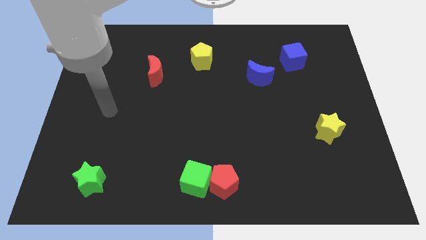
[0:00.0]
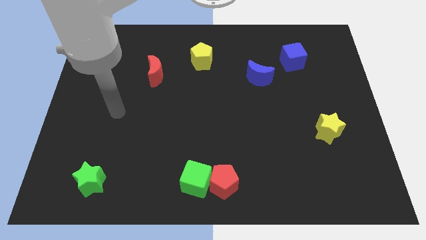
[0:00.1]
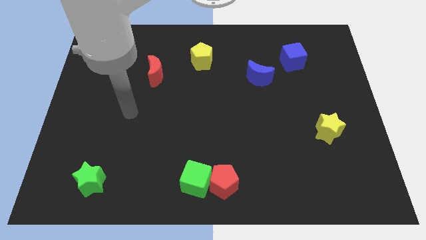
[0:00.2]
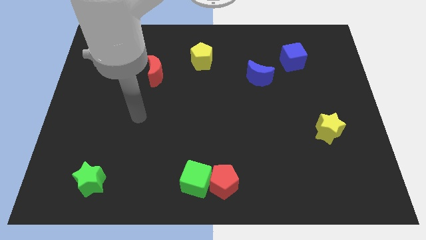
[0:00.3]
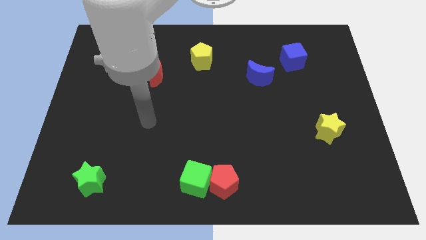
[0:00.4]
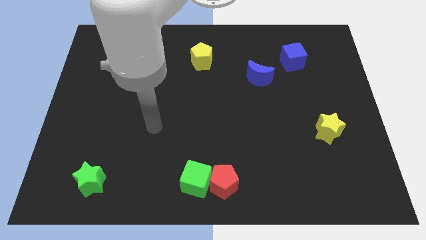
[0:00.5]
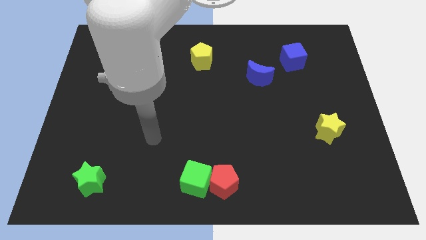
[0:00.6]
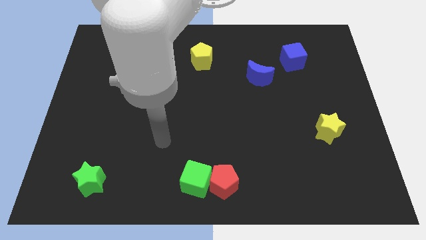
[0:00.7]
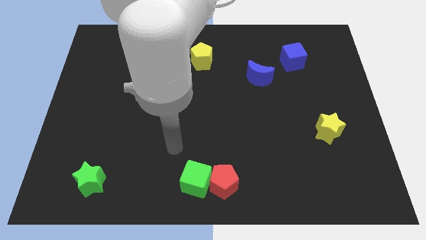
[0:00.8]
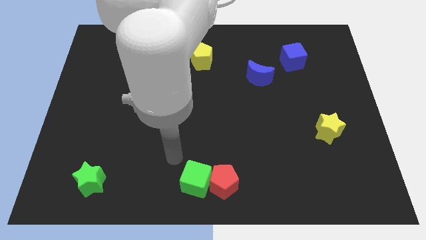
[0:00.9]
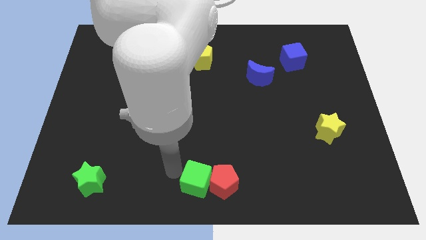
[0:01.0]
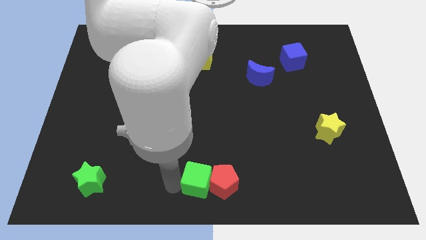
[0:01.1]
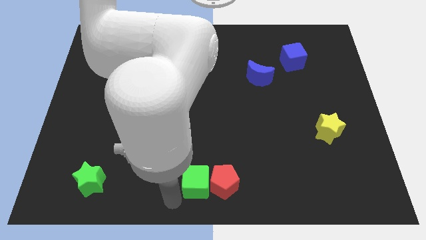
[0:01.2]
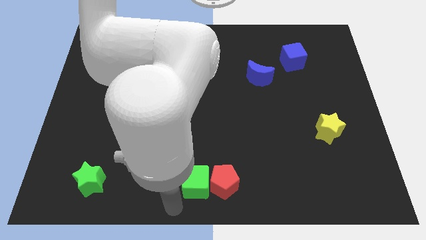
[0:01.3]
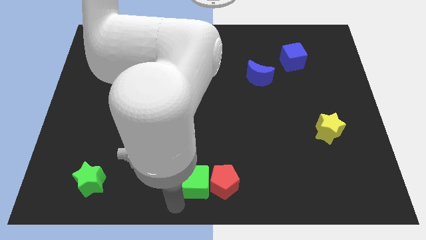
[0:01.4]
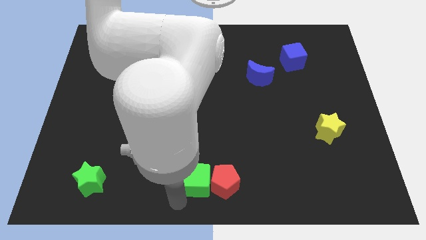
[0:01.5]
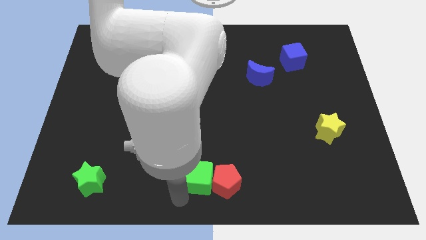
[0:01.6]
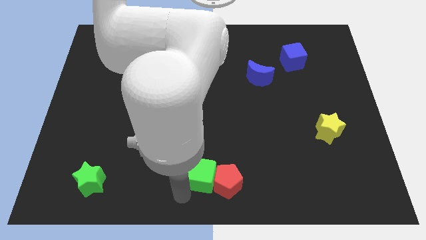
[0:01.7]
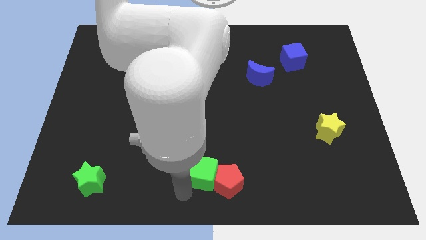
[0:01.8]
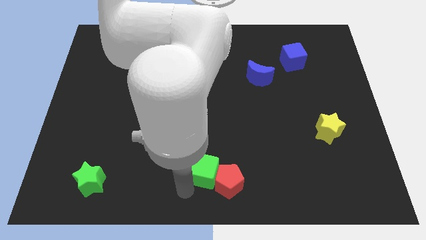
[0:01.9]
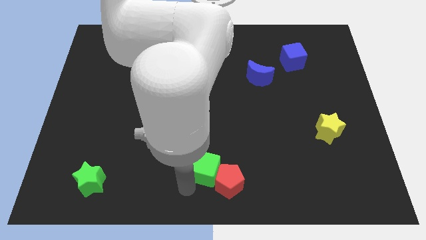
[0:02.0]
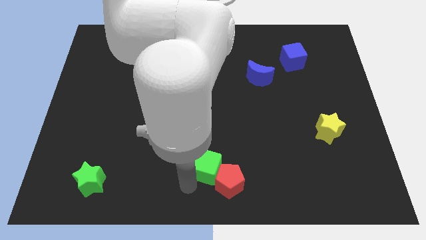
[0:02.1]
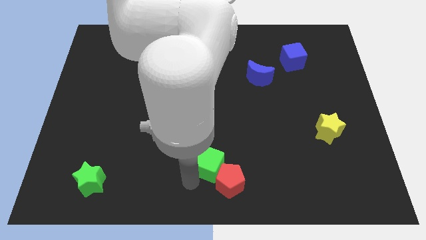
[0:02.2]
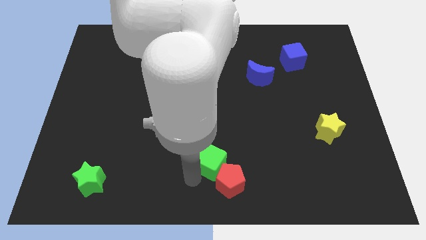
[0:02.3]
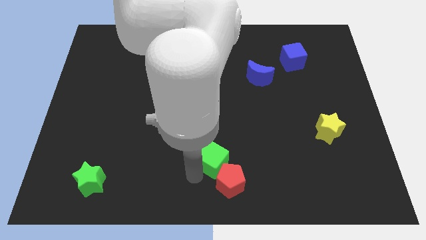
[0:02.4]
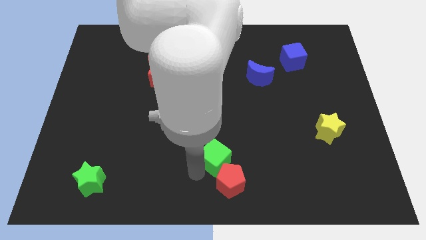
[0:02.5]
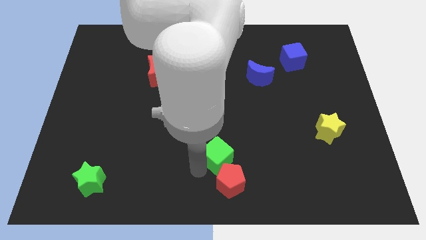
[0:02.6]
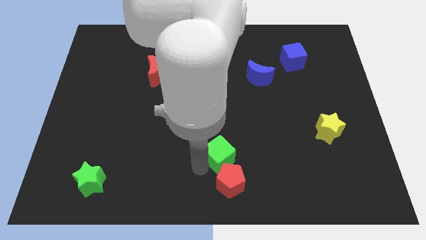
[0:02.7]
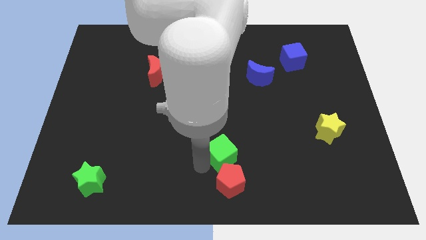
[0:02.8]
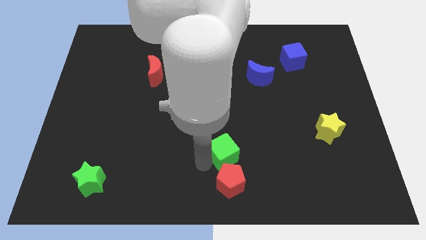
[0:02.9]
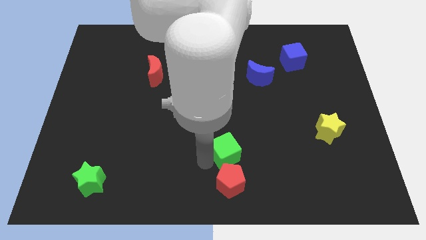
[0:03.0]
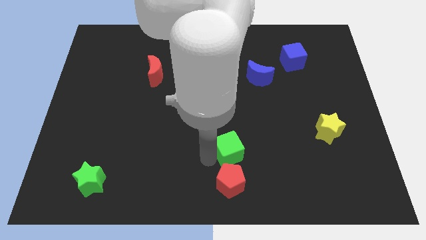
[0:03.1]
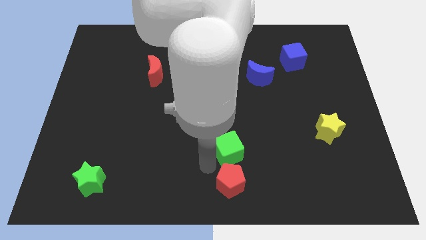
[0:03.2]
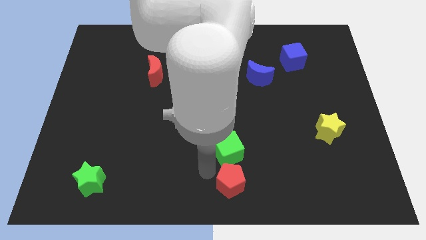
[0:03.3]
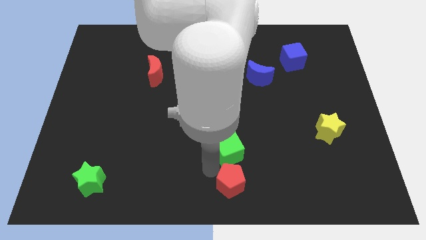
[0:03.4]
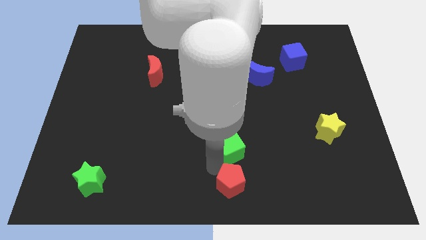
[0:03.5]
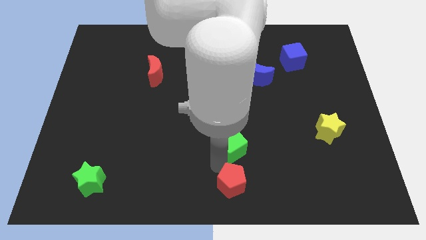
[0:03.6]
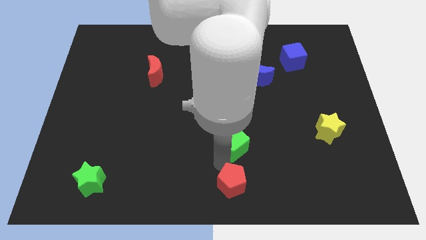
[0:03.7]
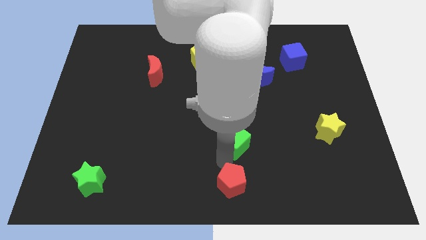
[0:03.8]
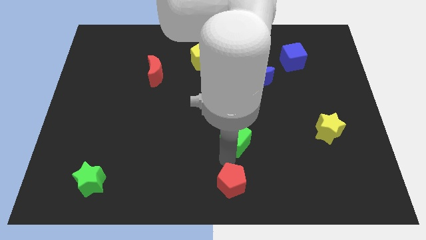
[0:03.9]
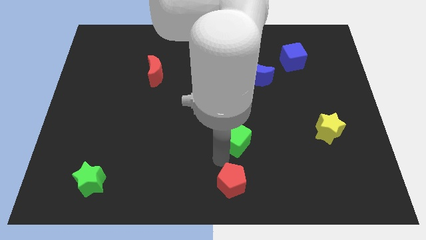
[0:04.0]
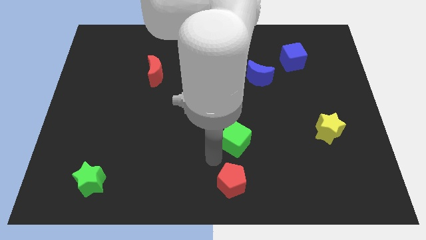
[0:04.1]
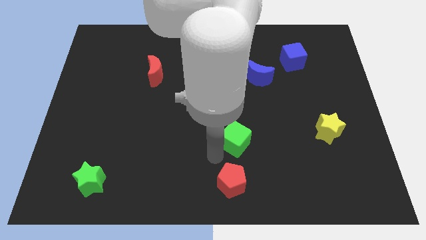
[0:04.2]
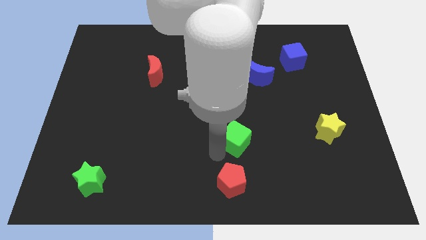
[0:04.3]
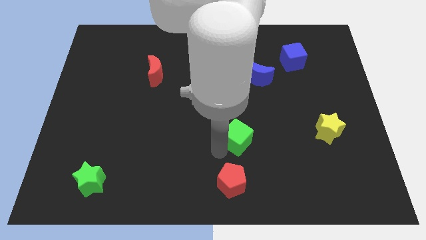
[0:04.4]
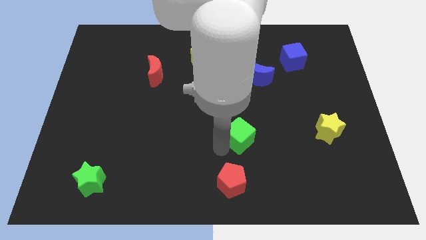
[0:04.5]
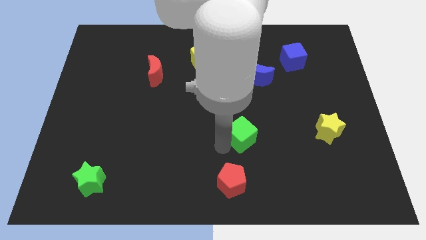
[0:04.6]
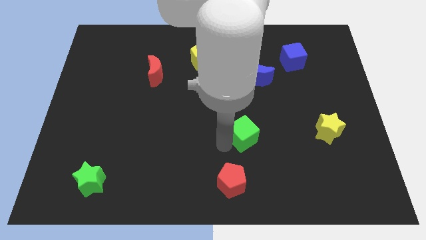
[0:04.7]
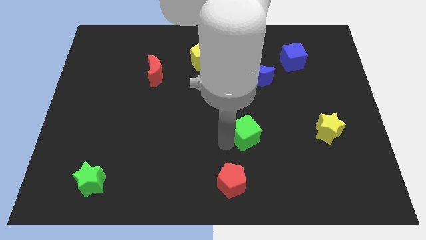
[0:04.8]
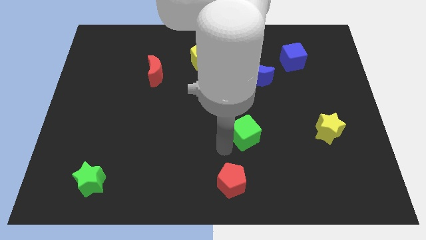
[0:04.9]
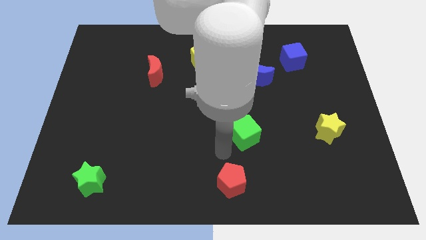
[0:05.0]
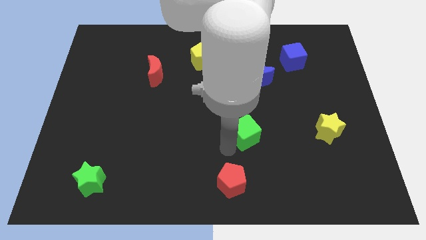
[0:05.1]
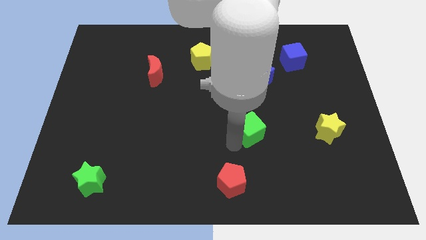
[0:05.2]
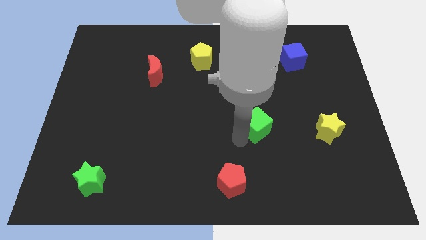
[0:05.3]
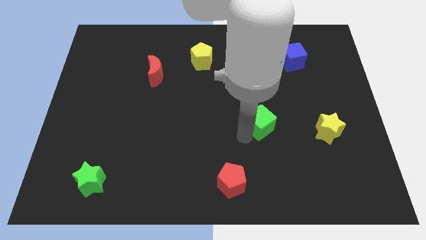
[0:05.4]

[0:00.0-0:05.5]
move the green cube up and to the right

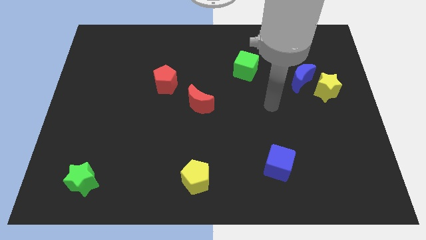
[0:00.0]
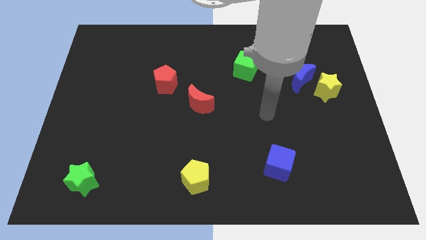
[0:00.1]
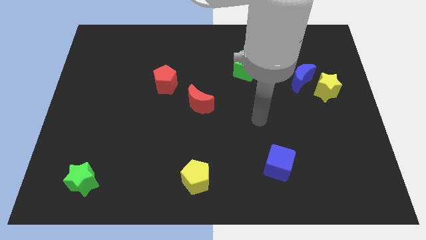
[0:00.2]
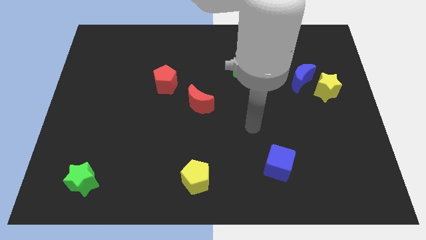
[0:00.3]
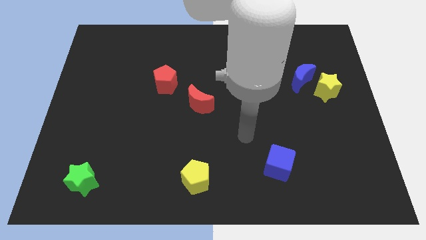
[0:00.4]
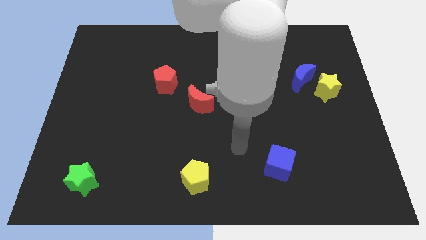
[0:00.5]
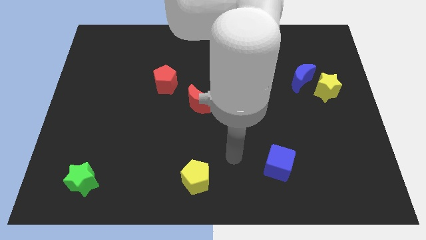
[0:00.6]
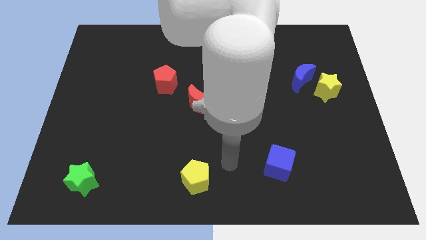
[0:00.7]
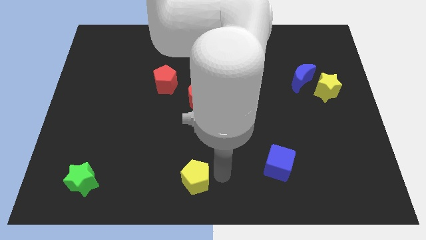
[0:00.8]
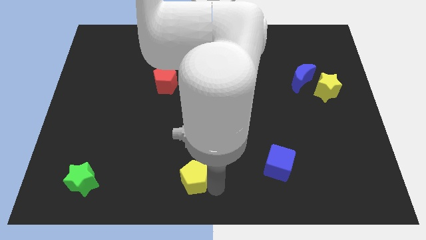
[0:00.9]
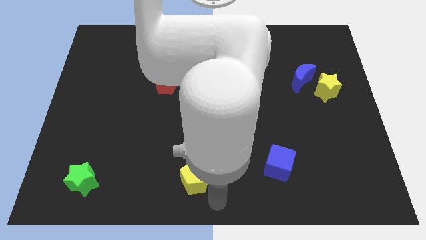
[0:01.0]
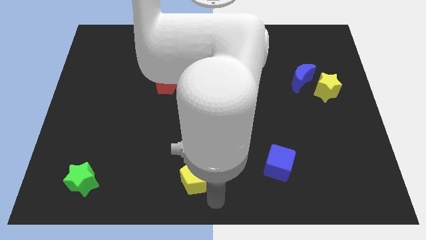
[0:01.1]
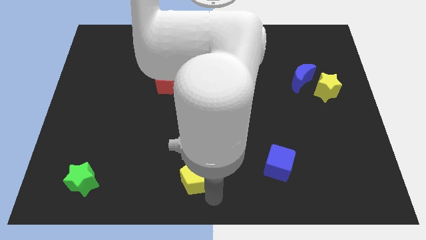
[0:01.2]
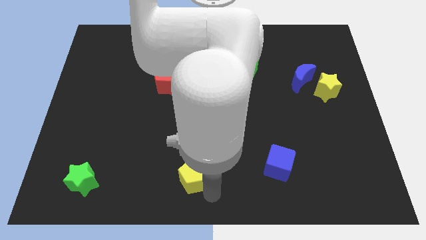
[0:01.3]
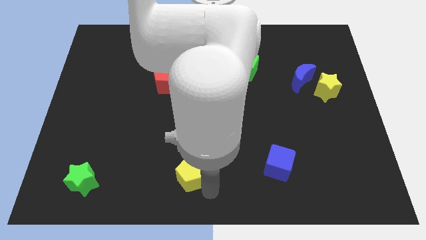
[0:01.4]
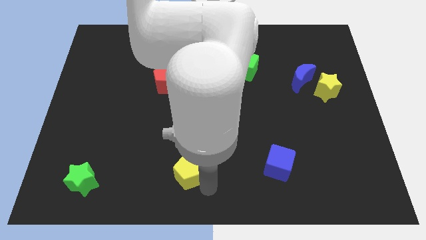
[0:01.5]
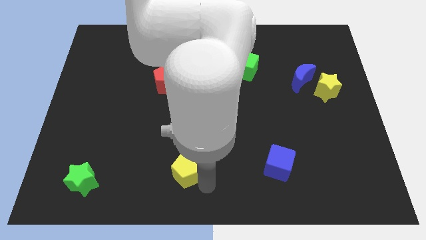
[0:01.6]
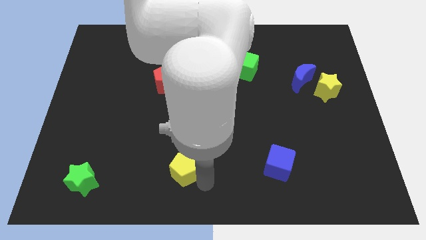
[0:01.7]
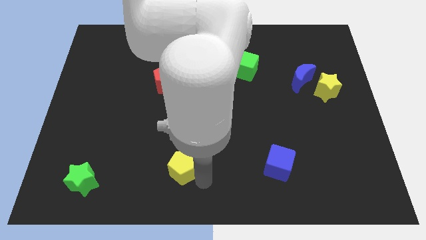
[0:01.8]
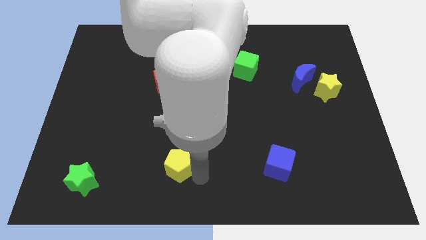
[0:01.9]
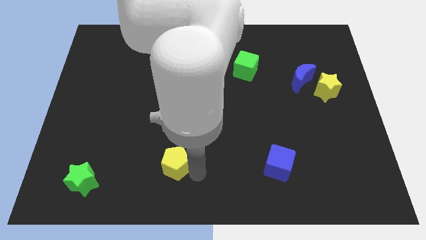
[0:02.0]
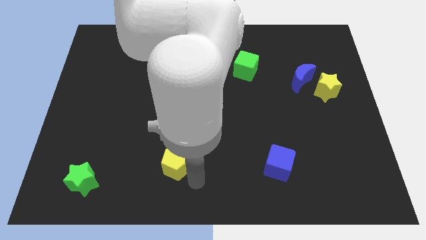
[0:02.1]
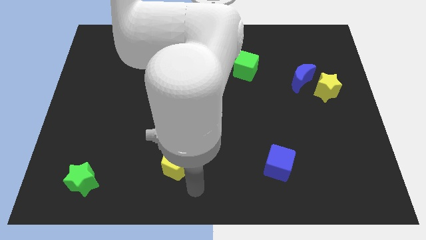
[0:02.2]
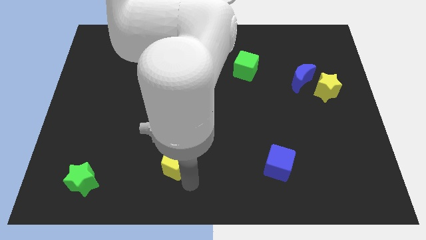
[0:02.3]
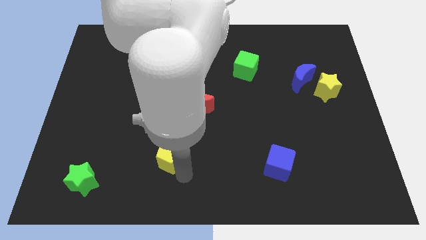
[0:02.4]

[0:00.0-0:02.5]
slightly push the yellow pentagon upwards and then left
